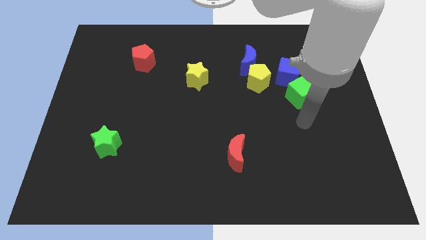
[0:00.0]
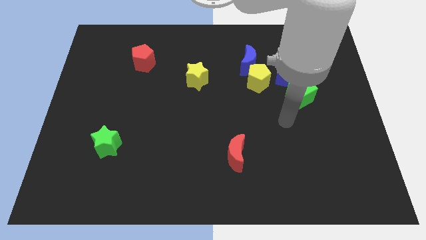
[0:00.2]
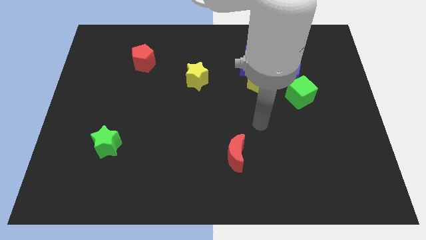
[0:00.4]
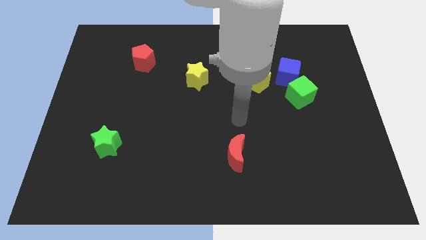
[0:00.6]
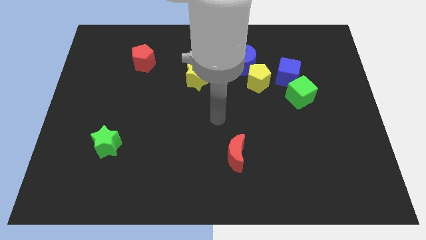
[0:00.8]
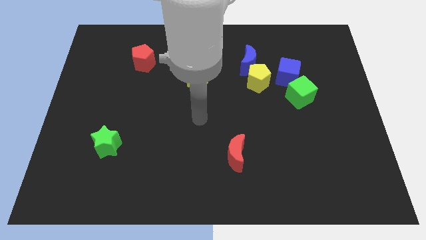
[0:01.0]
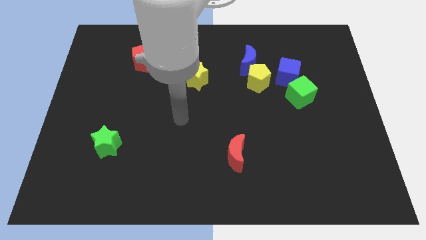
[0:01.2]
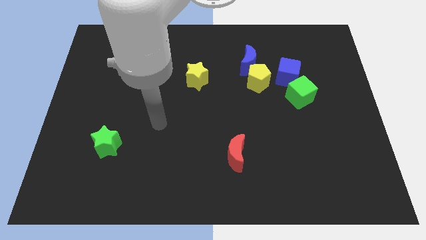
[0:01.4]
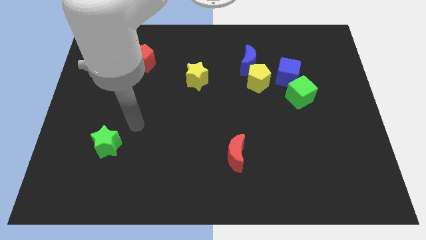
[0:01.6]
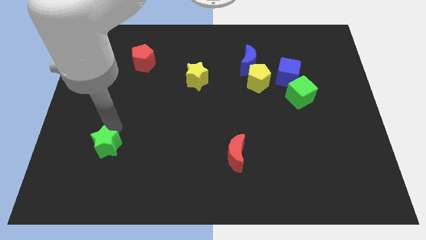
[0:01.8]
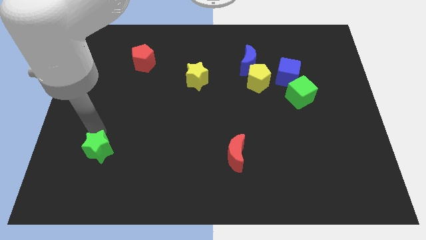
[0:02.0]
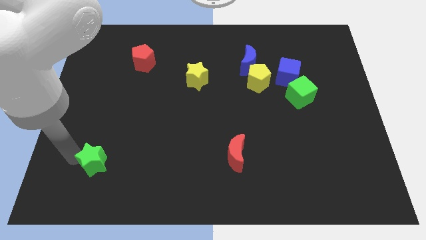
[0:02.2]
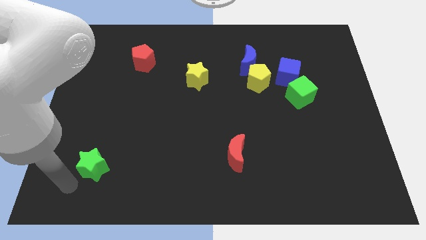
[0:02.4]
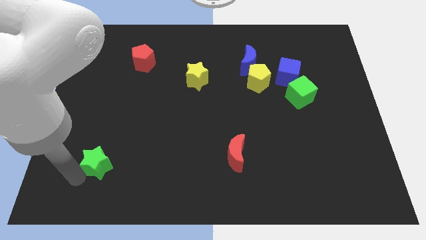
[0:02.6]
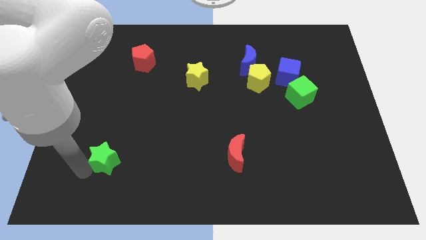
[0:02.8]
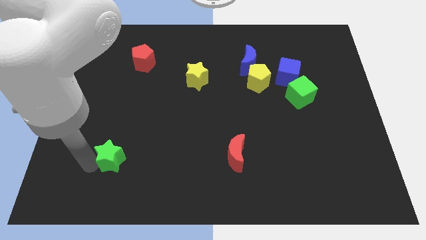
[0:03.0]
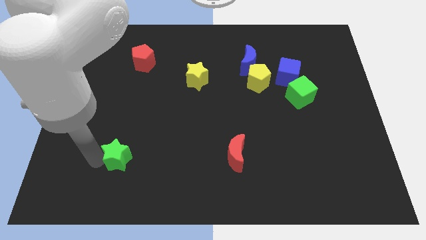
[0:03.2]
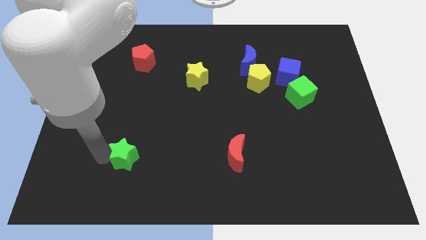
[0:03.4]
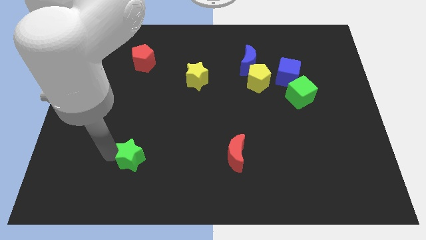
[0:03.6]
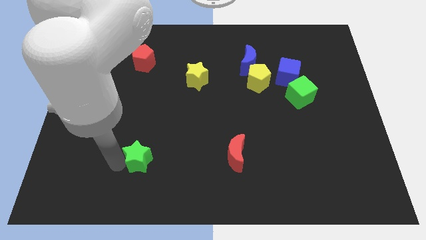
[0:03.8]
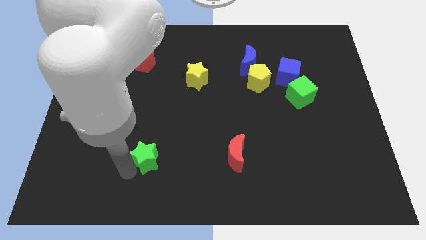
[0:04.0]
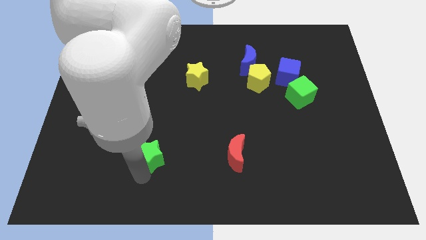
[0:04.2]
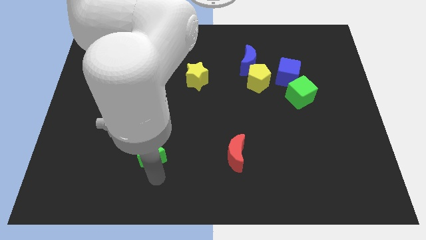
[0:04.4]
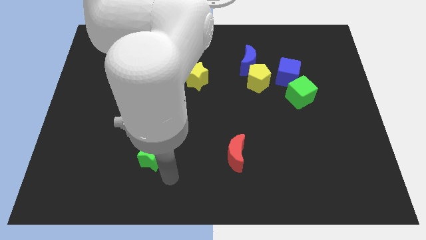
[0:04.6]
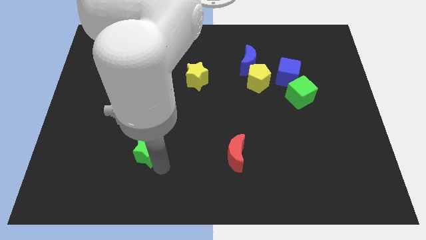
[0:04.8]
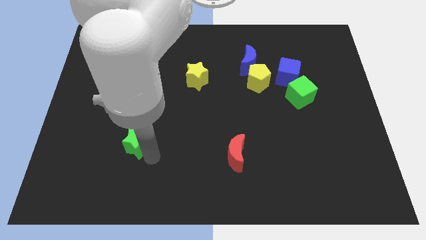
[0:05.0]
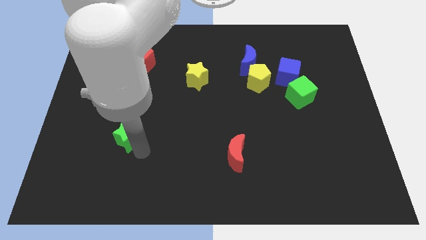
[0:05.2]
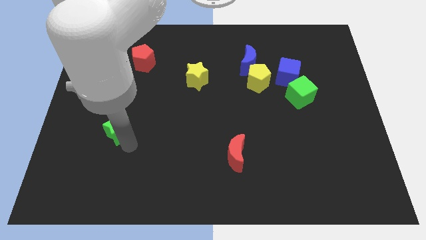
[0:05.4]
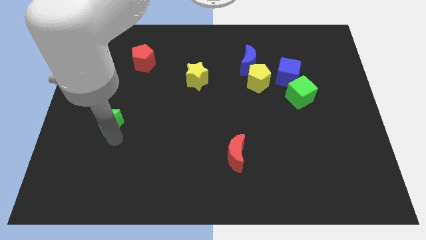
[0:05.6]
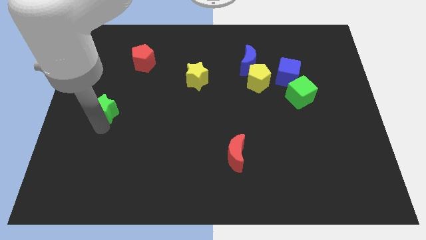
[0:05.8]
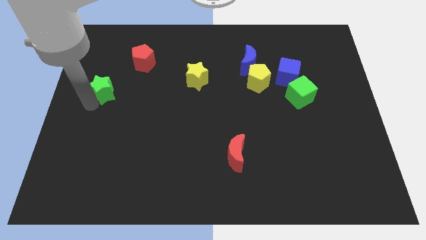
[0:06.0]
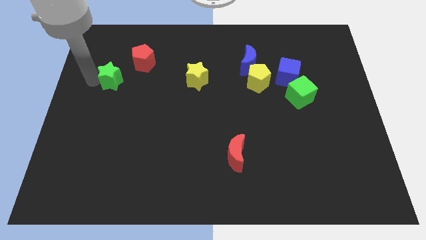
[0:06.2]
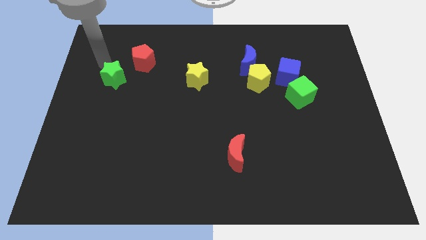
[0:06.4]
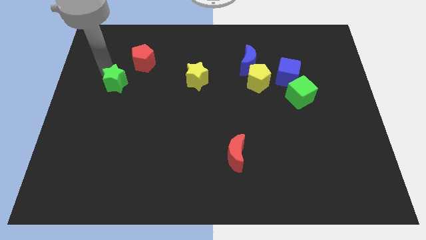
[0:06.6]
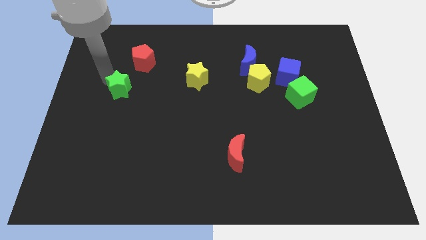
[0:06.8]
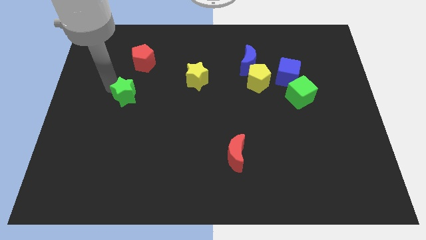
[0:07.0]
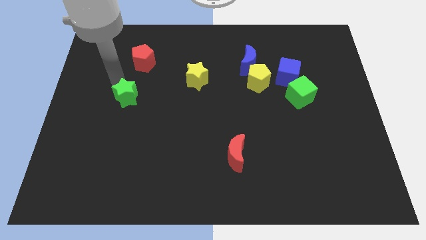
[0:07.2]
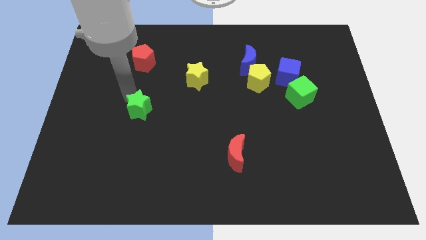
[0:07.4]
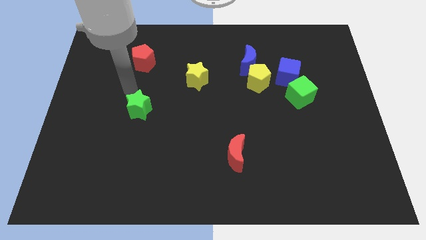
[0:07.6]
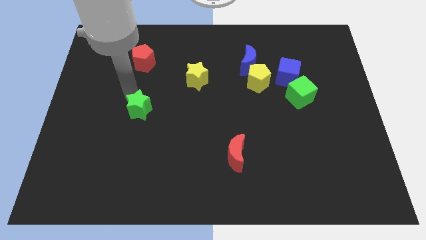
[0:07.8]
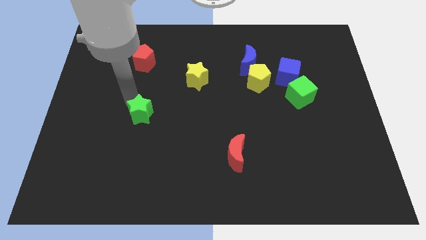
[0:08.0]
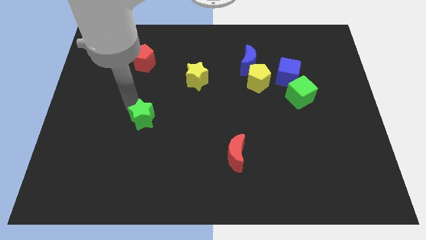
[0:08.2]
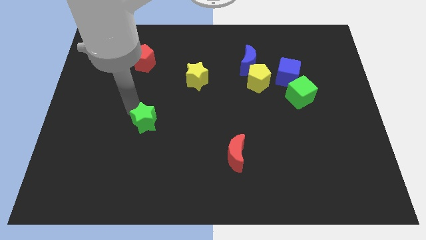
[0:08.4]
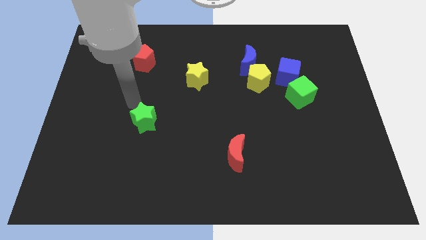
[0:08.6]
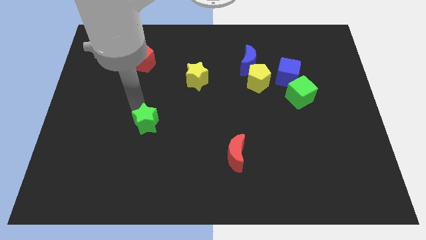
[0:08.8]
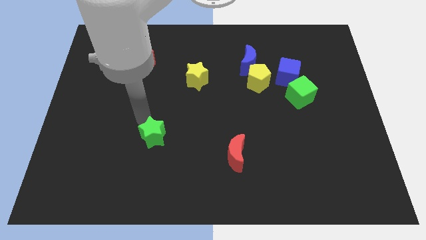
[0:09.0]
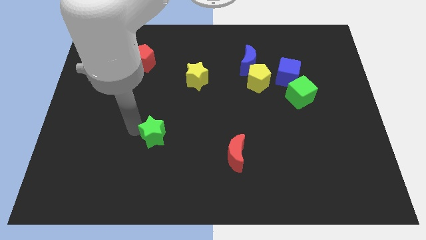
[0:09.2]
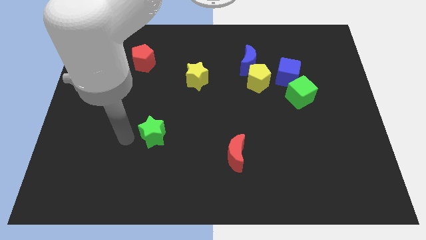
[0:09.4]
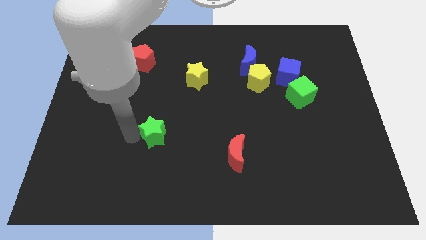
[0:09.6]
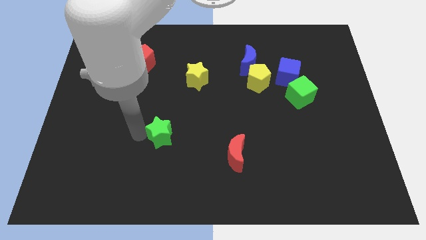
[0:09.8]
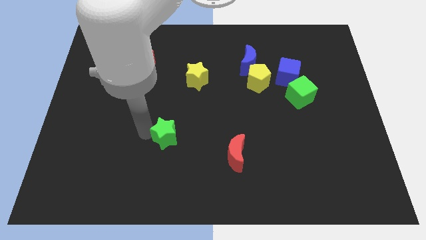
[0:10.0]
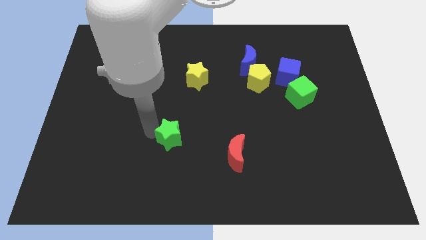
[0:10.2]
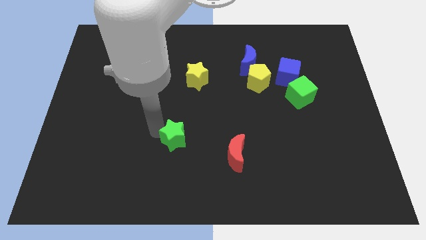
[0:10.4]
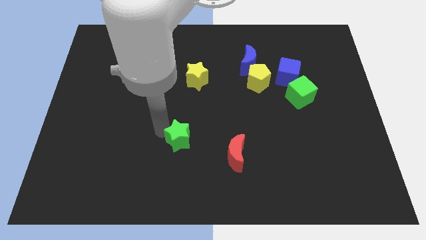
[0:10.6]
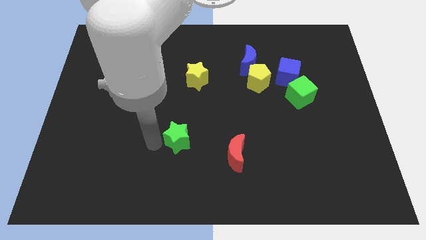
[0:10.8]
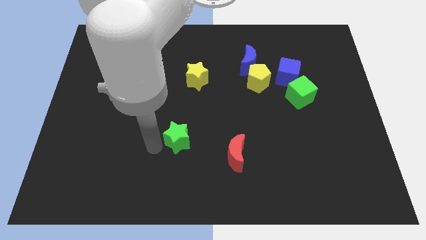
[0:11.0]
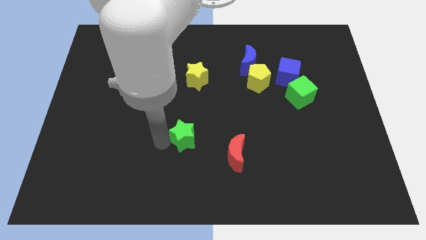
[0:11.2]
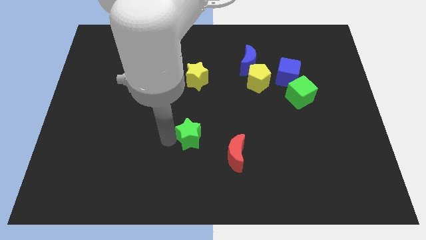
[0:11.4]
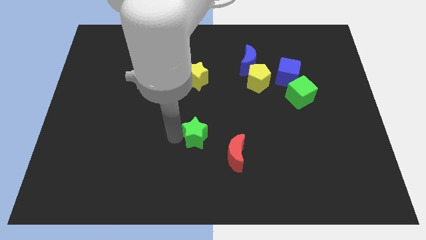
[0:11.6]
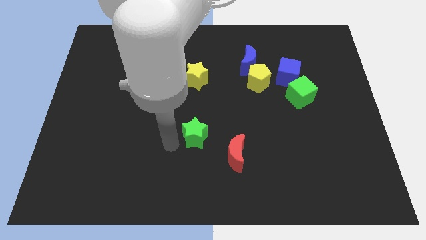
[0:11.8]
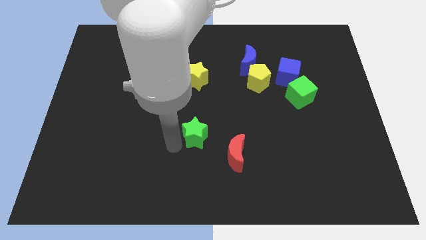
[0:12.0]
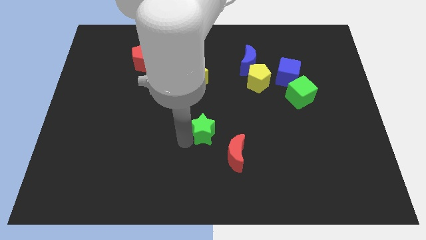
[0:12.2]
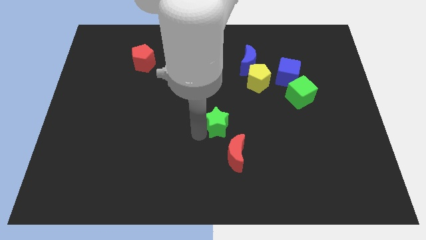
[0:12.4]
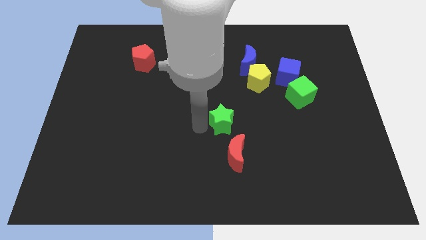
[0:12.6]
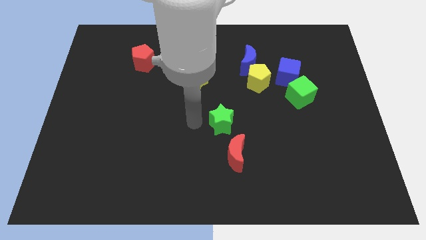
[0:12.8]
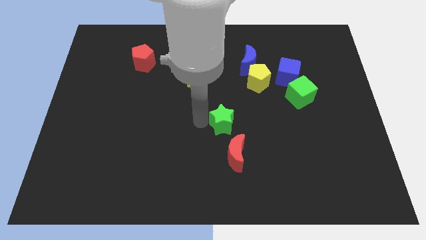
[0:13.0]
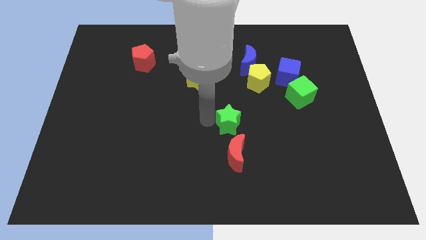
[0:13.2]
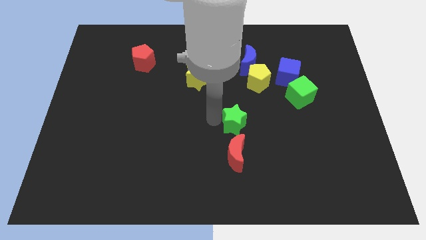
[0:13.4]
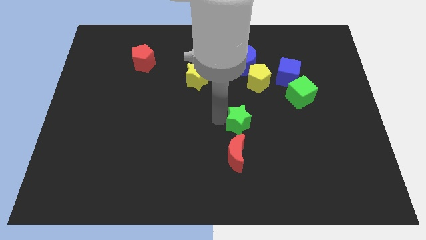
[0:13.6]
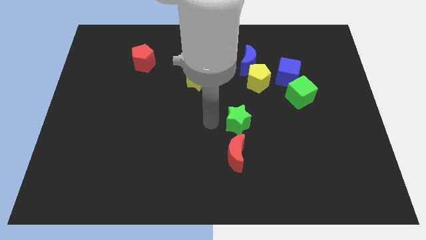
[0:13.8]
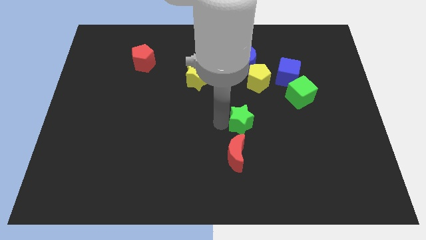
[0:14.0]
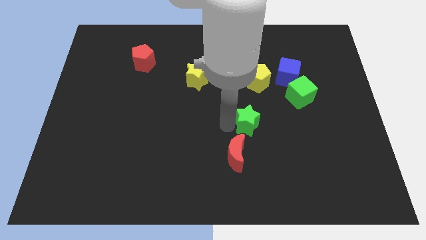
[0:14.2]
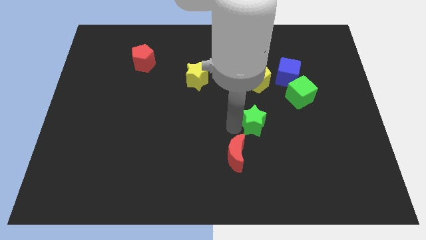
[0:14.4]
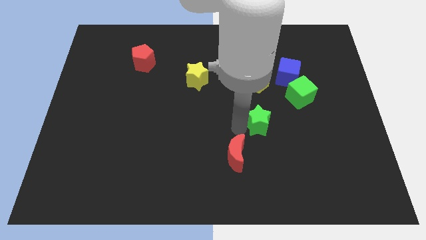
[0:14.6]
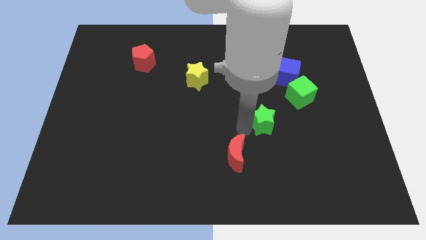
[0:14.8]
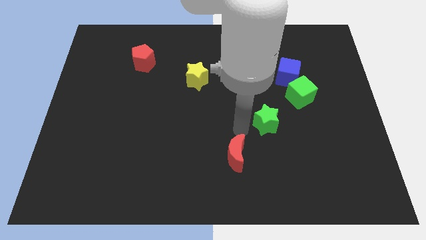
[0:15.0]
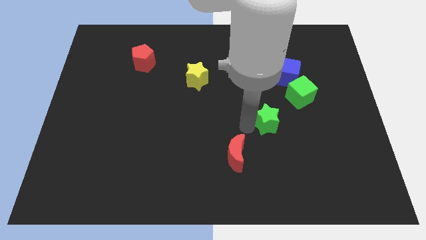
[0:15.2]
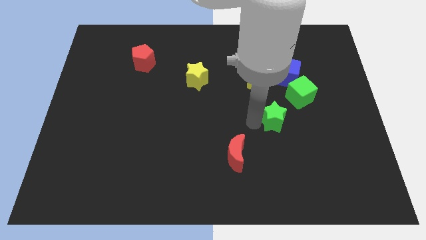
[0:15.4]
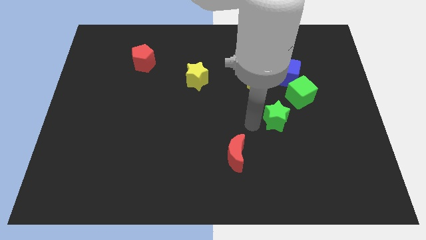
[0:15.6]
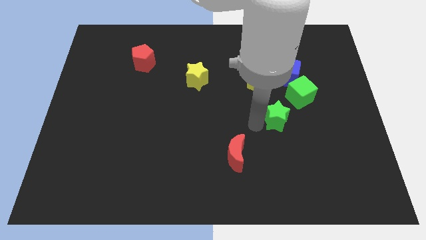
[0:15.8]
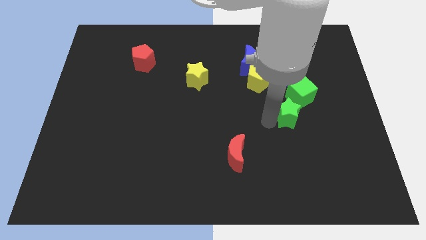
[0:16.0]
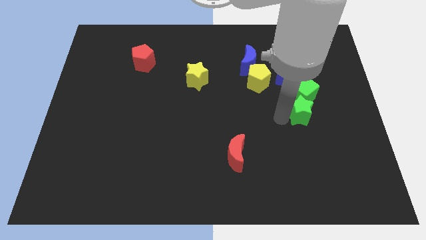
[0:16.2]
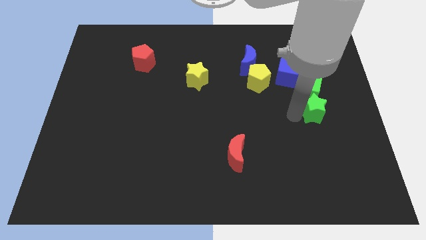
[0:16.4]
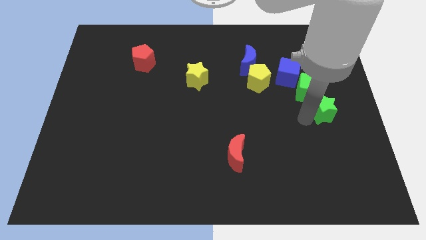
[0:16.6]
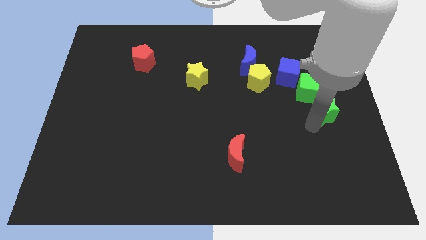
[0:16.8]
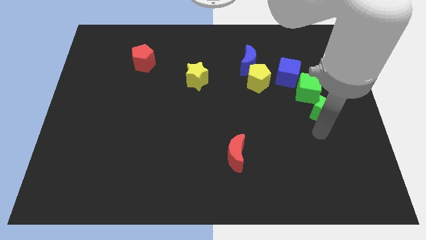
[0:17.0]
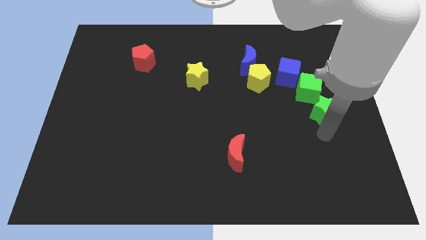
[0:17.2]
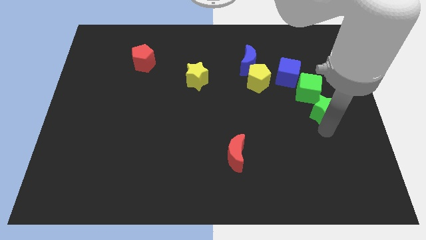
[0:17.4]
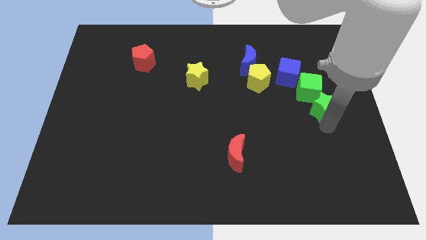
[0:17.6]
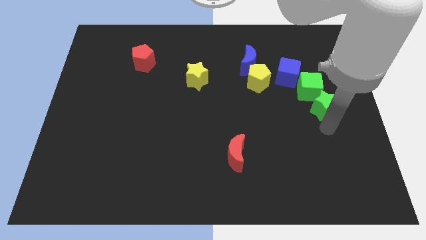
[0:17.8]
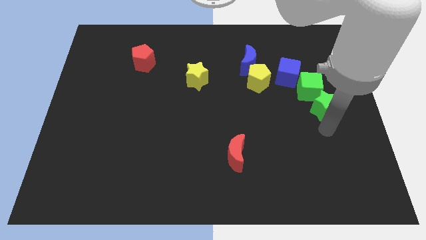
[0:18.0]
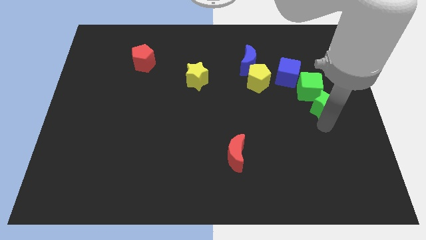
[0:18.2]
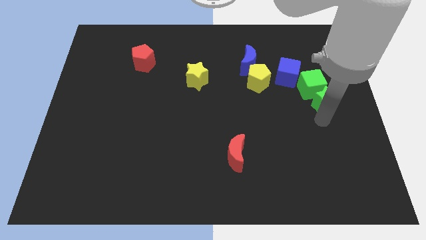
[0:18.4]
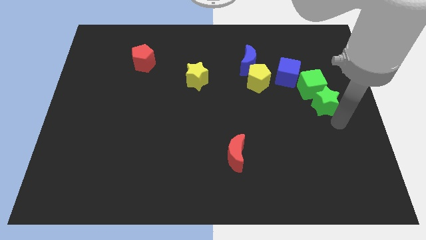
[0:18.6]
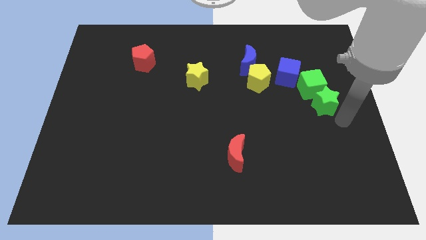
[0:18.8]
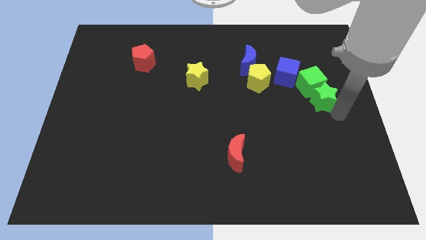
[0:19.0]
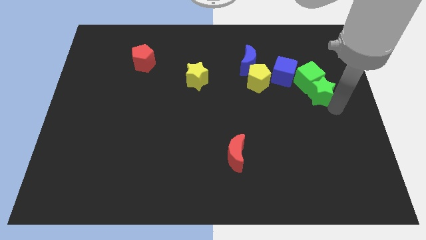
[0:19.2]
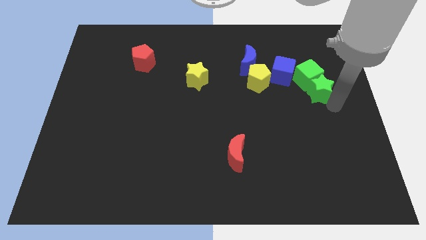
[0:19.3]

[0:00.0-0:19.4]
put the green star to the right of the yellow pentagon
